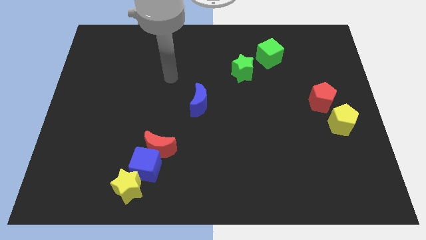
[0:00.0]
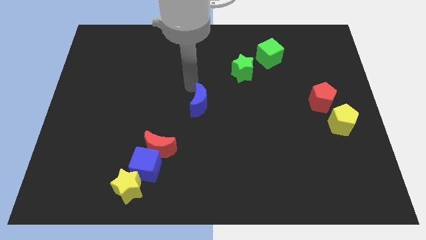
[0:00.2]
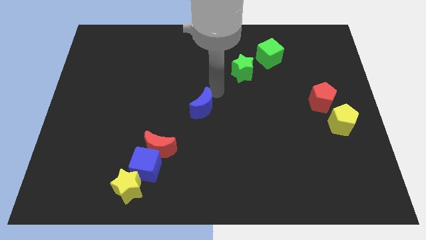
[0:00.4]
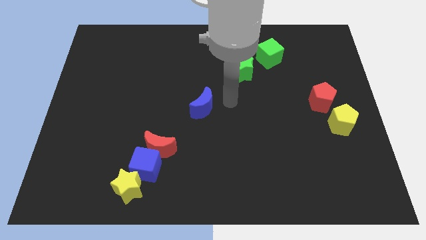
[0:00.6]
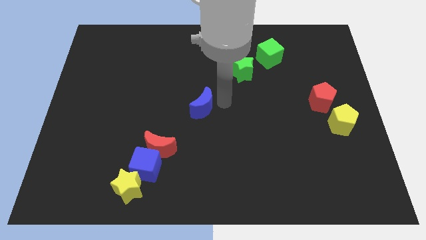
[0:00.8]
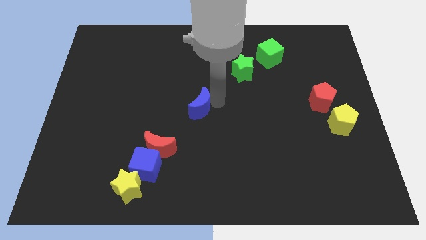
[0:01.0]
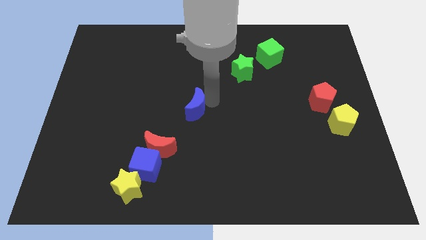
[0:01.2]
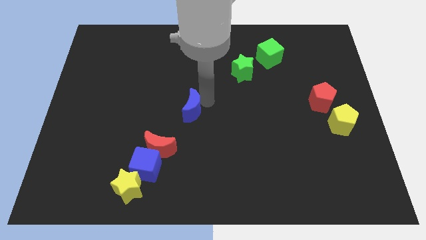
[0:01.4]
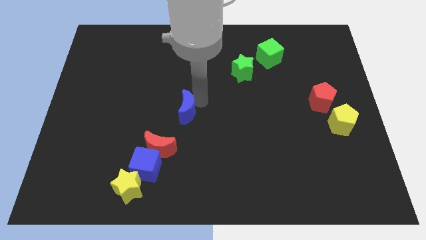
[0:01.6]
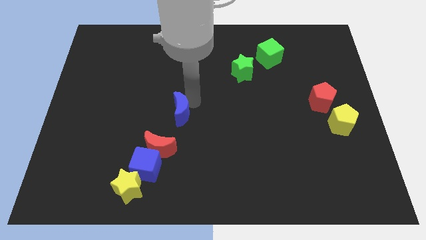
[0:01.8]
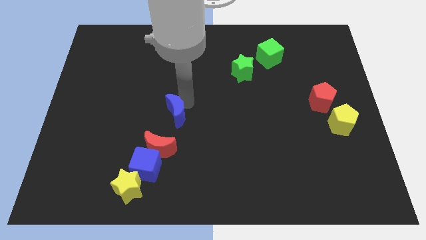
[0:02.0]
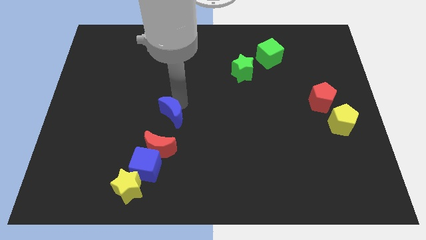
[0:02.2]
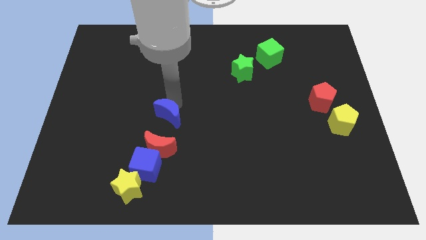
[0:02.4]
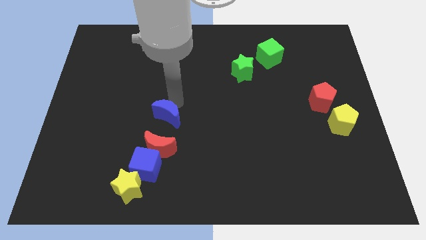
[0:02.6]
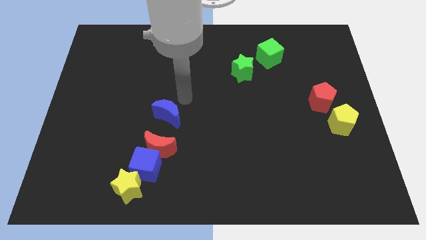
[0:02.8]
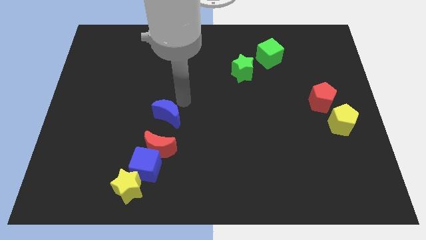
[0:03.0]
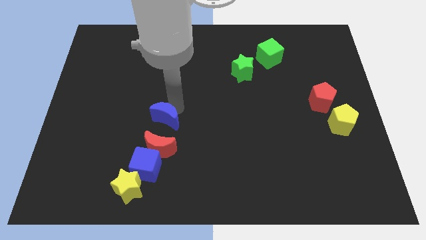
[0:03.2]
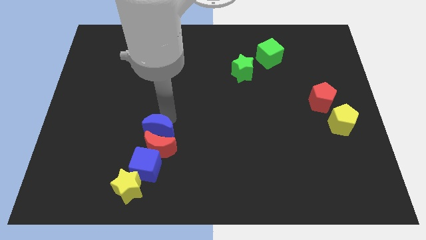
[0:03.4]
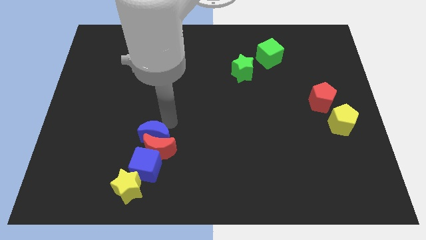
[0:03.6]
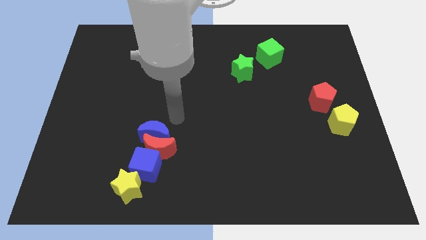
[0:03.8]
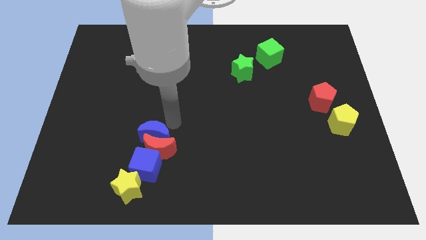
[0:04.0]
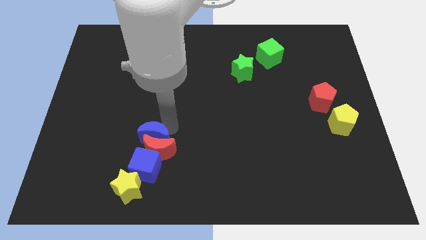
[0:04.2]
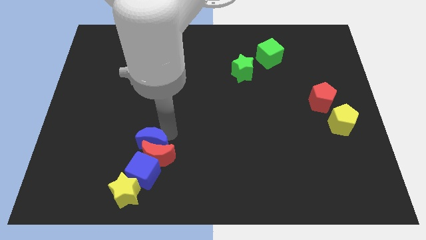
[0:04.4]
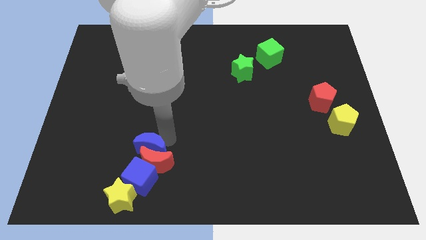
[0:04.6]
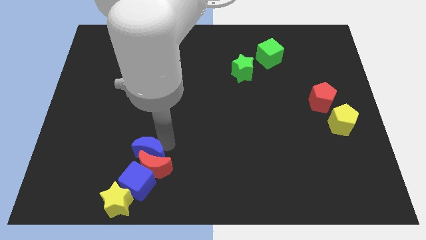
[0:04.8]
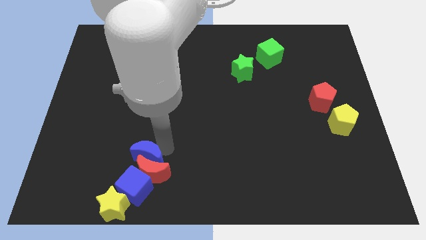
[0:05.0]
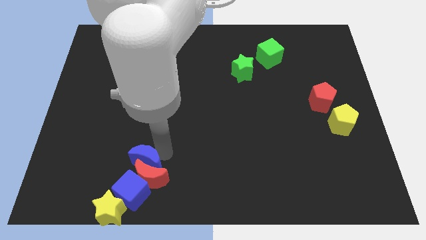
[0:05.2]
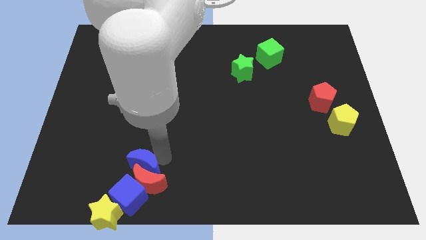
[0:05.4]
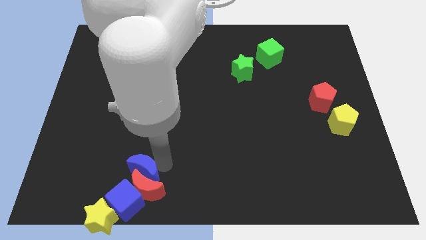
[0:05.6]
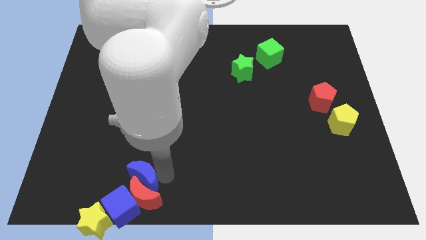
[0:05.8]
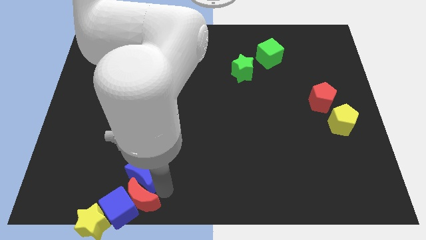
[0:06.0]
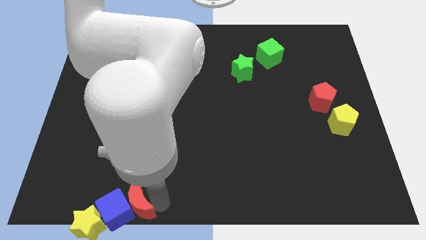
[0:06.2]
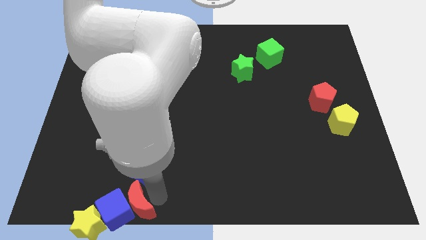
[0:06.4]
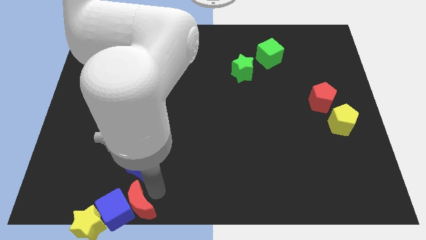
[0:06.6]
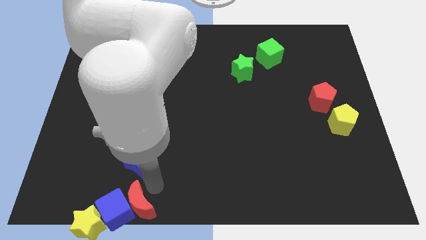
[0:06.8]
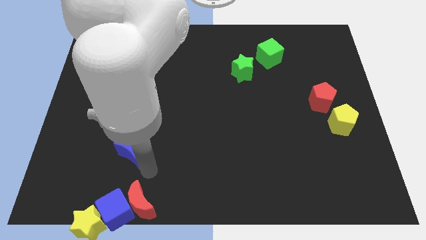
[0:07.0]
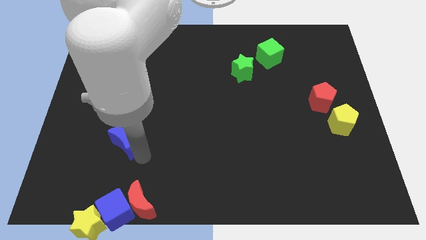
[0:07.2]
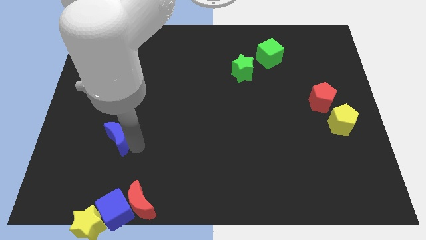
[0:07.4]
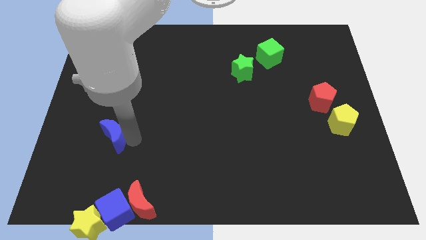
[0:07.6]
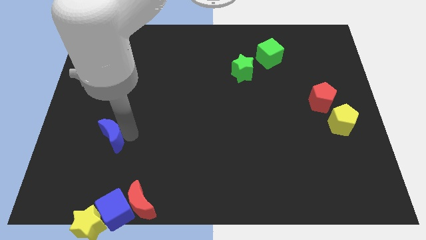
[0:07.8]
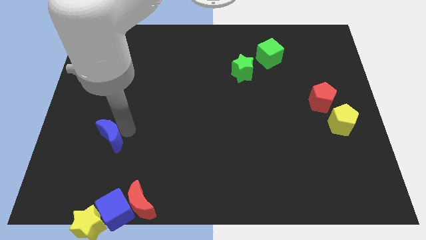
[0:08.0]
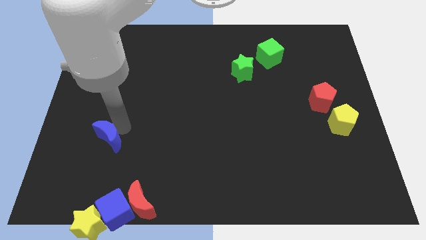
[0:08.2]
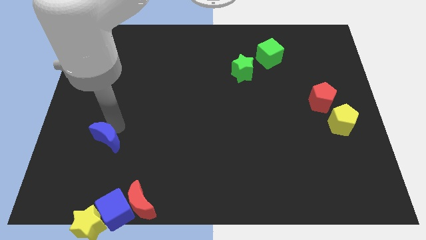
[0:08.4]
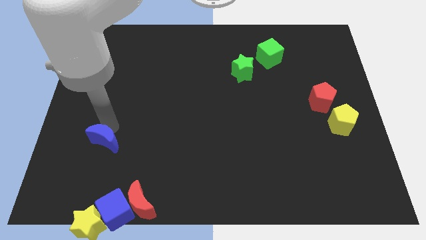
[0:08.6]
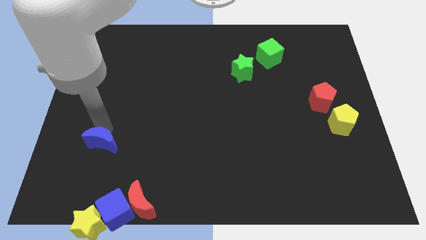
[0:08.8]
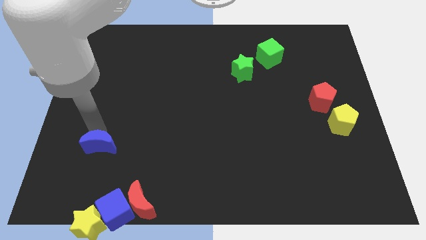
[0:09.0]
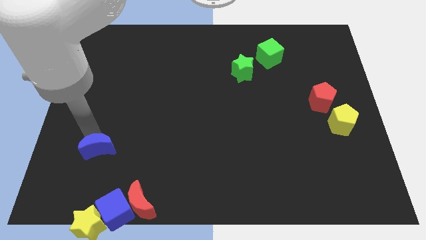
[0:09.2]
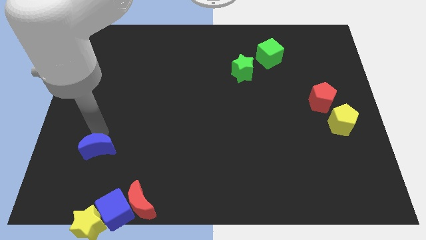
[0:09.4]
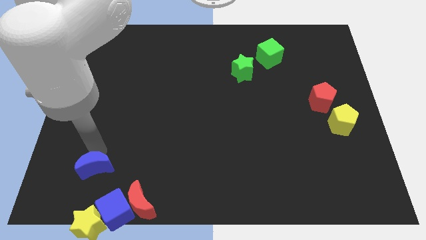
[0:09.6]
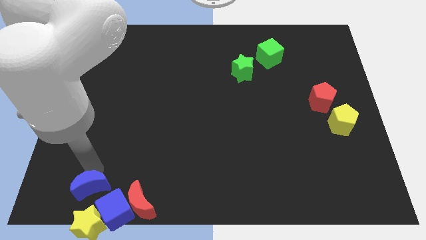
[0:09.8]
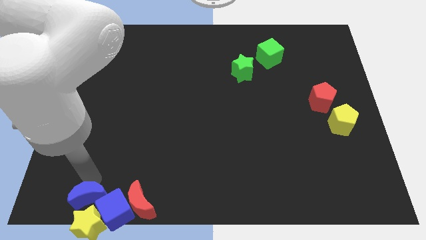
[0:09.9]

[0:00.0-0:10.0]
put the blue moon close to the yellow star

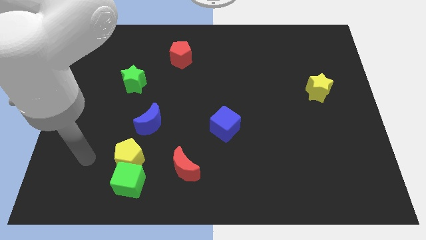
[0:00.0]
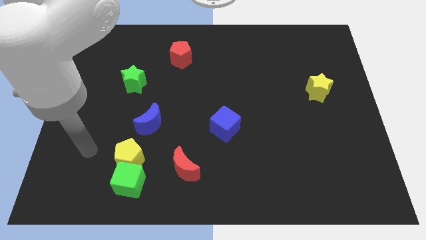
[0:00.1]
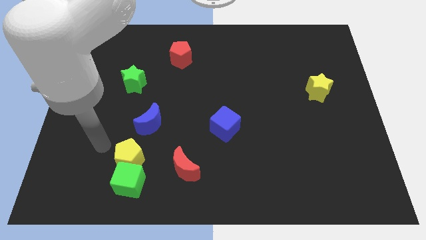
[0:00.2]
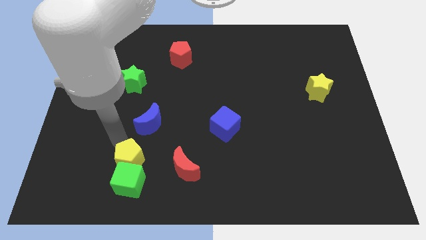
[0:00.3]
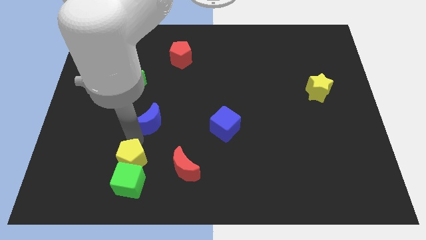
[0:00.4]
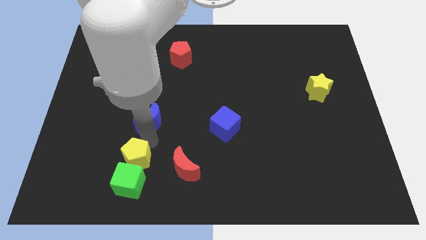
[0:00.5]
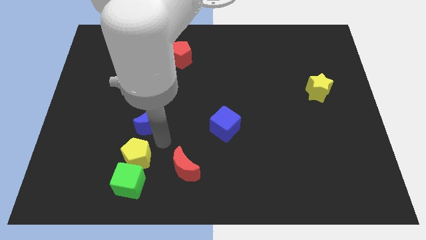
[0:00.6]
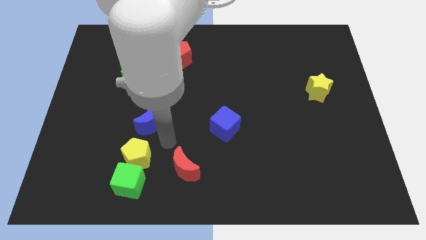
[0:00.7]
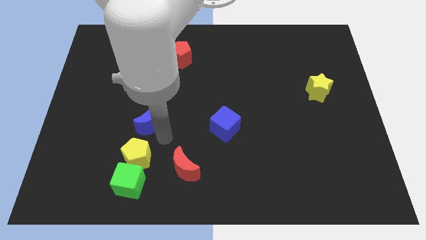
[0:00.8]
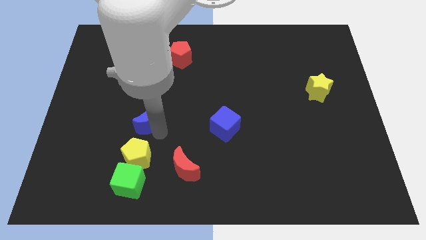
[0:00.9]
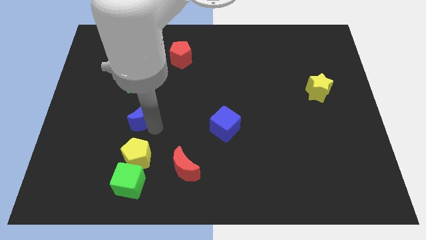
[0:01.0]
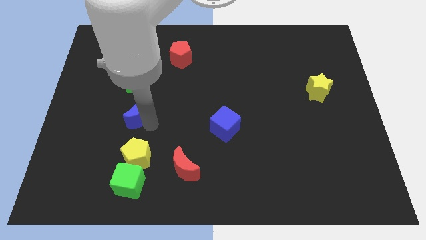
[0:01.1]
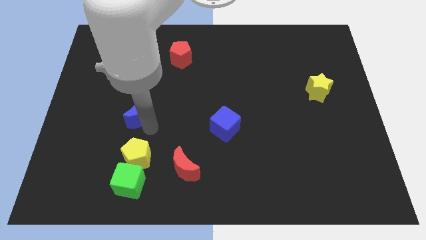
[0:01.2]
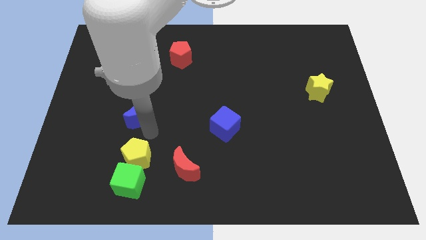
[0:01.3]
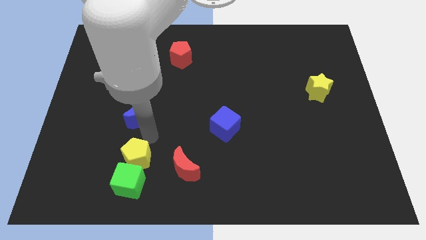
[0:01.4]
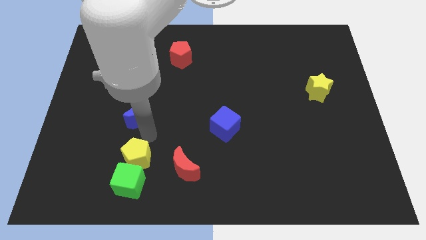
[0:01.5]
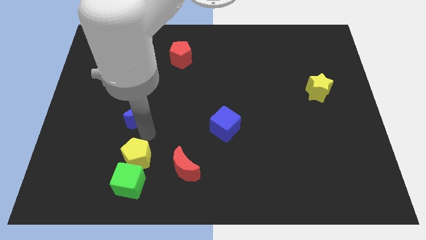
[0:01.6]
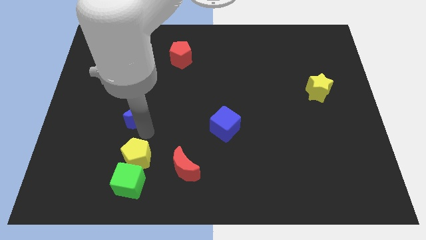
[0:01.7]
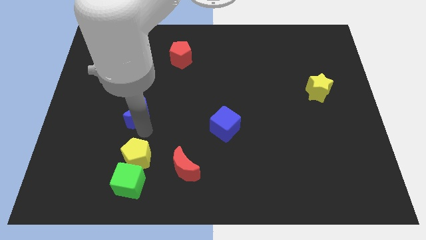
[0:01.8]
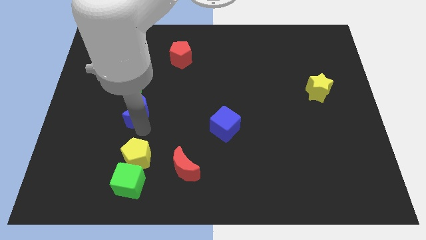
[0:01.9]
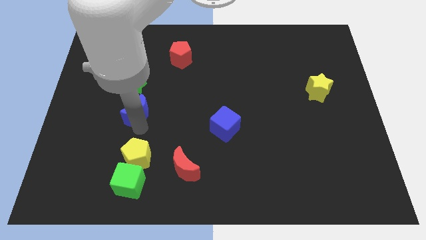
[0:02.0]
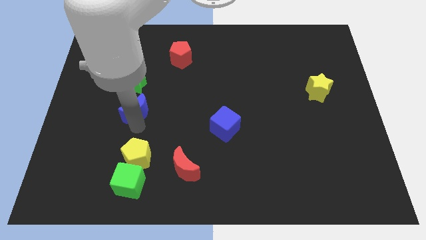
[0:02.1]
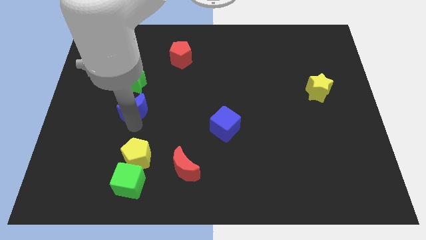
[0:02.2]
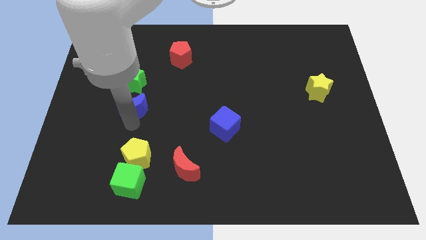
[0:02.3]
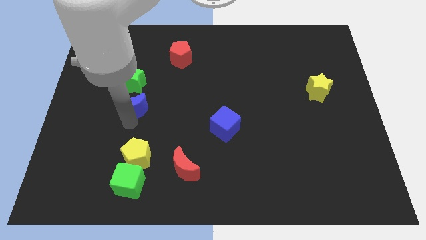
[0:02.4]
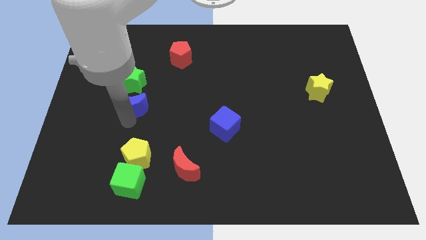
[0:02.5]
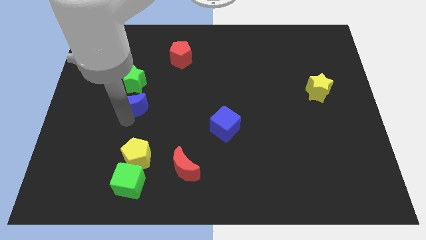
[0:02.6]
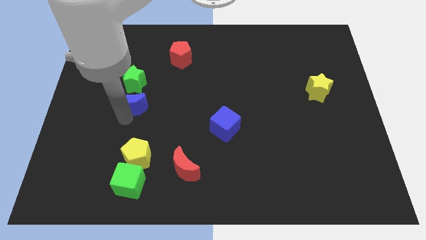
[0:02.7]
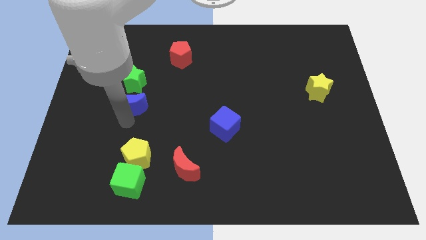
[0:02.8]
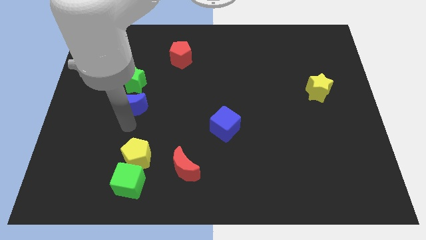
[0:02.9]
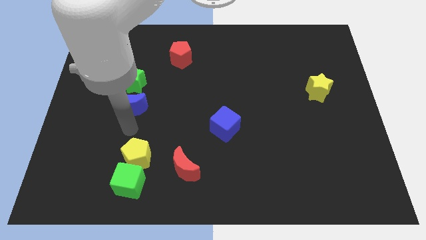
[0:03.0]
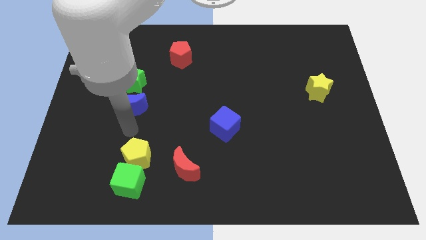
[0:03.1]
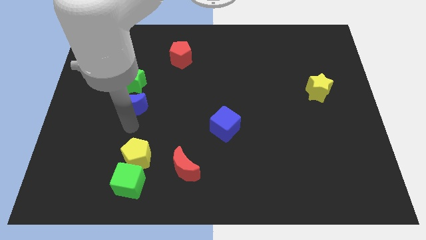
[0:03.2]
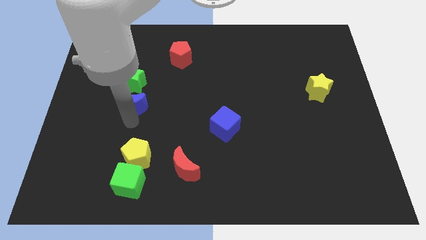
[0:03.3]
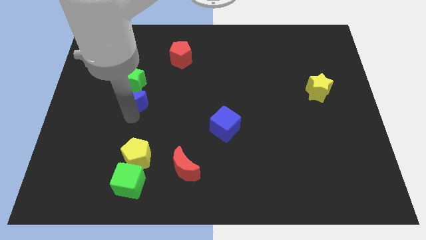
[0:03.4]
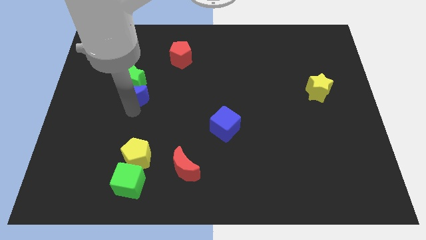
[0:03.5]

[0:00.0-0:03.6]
slide the blue moon next to the green star

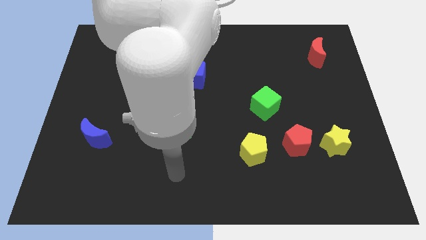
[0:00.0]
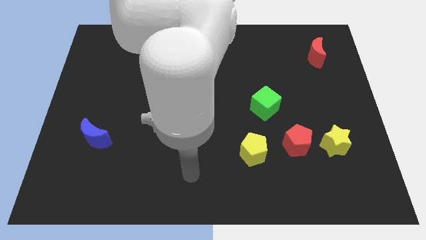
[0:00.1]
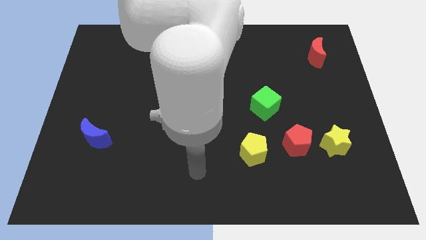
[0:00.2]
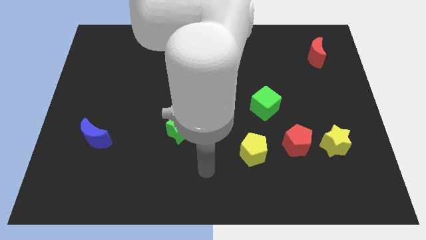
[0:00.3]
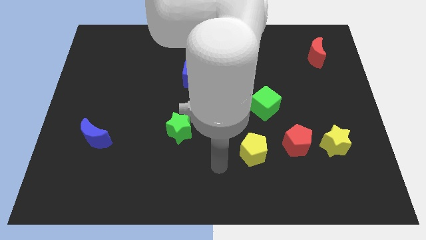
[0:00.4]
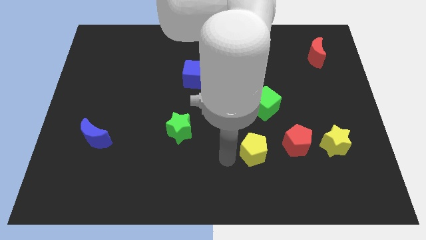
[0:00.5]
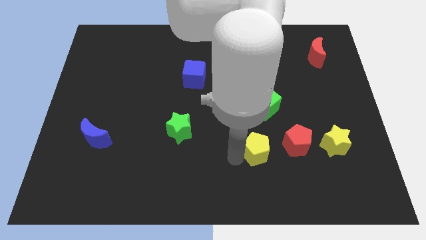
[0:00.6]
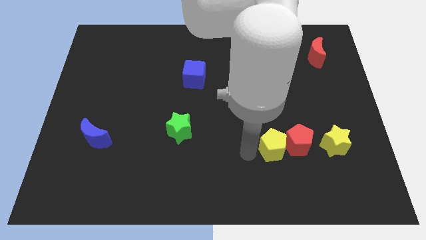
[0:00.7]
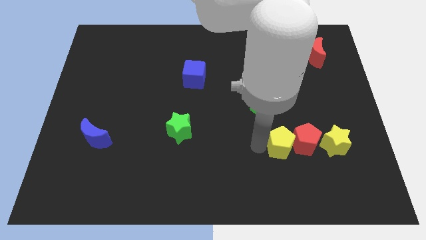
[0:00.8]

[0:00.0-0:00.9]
move the red pentagon towards the yellow star
